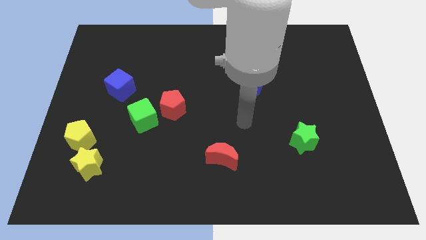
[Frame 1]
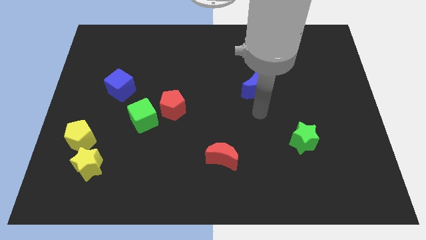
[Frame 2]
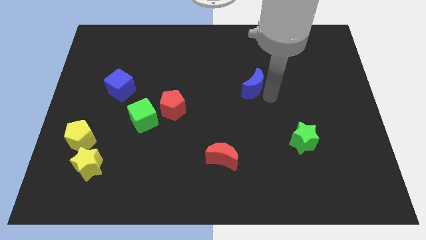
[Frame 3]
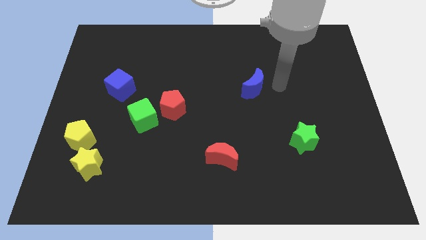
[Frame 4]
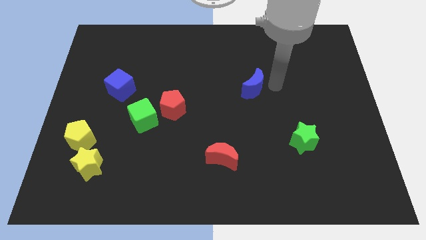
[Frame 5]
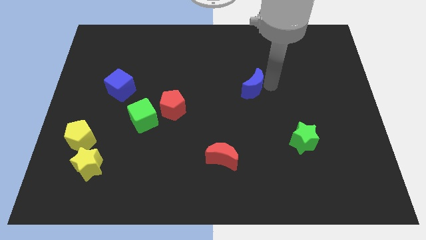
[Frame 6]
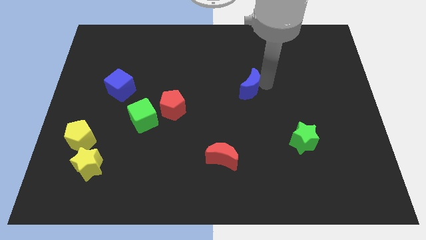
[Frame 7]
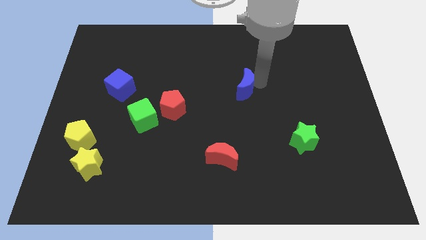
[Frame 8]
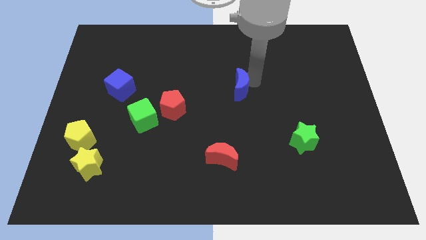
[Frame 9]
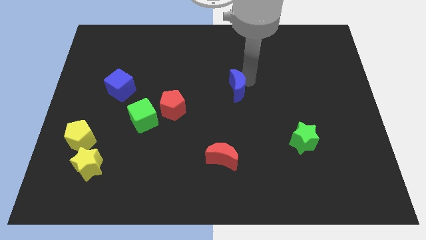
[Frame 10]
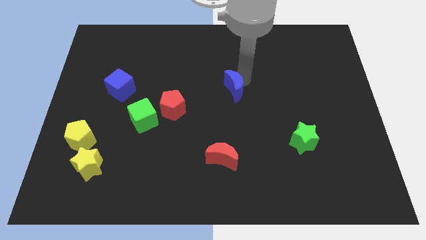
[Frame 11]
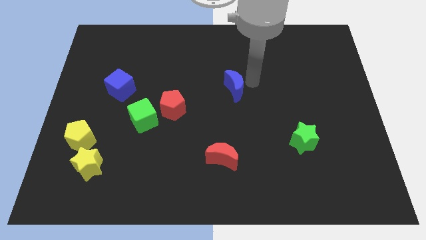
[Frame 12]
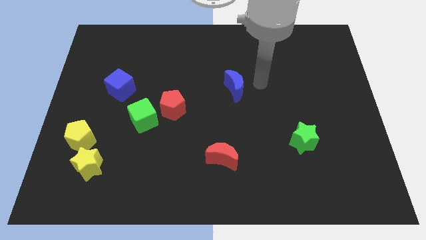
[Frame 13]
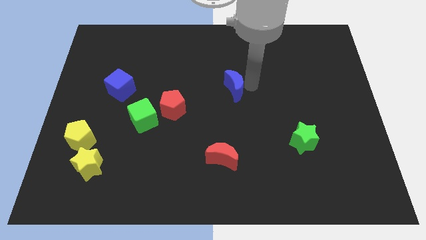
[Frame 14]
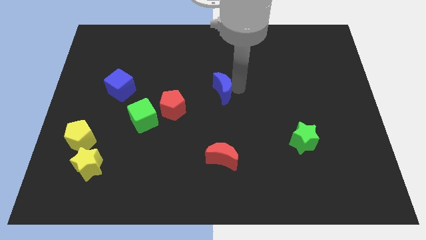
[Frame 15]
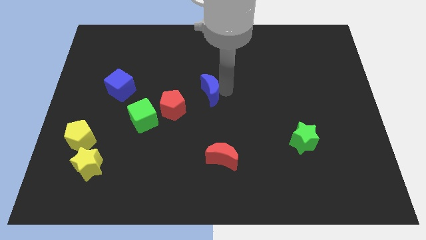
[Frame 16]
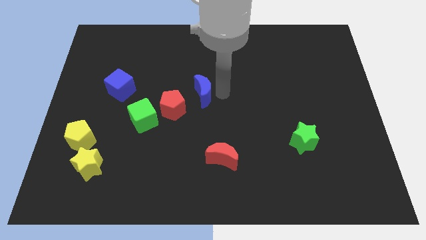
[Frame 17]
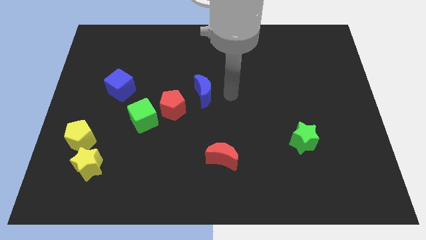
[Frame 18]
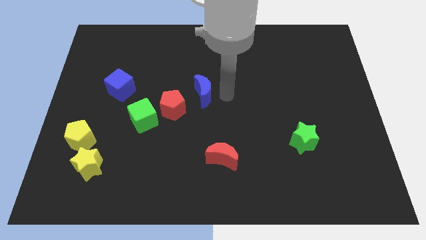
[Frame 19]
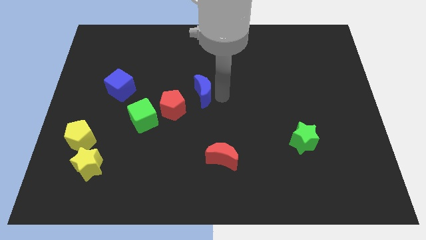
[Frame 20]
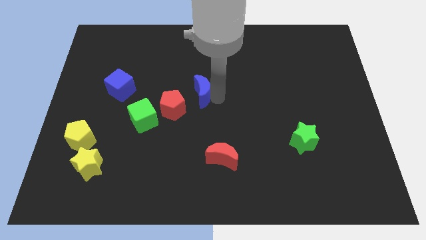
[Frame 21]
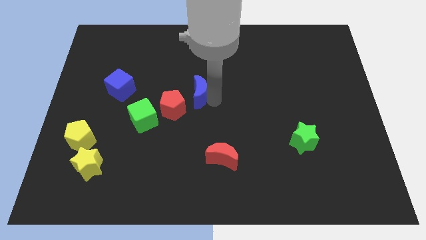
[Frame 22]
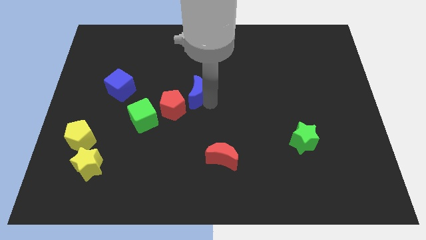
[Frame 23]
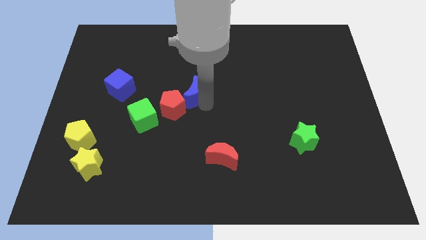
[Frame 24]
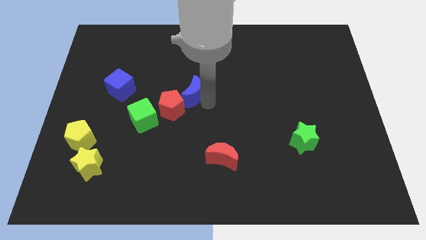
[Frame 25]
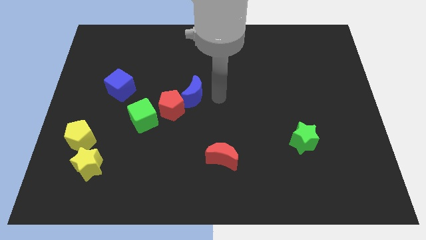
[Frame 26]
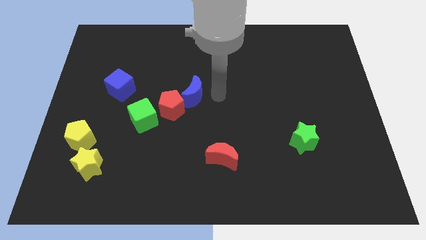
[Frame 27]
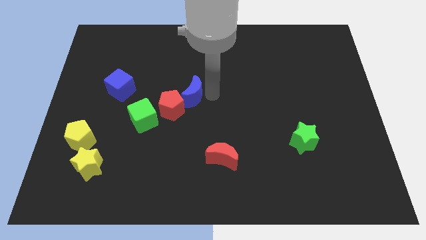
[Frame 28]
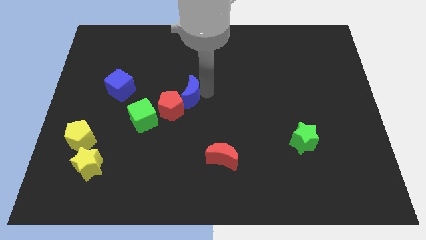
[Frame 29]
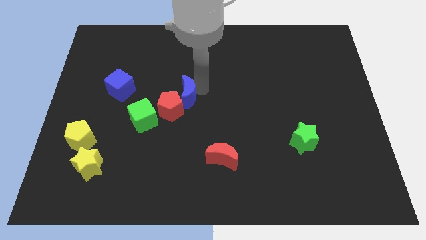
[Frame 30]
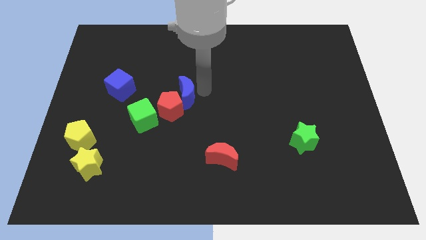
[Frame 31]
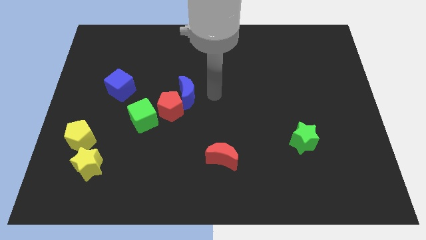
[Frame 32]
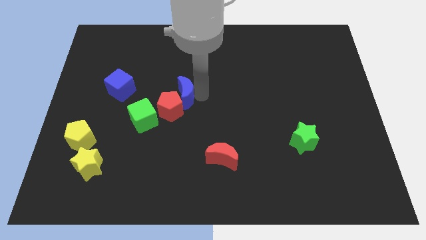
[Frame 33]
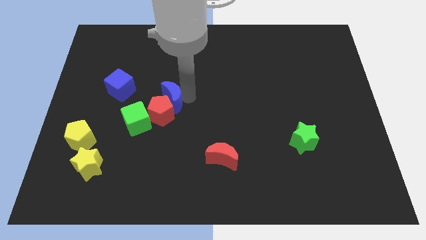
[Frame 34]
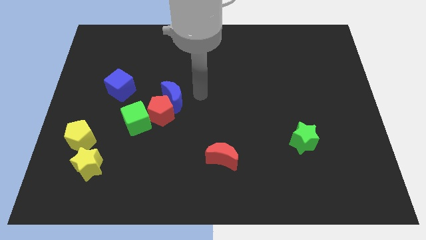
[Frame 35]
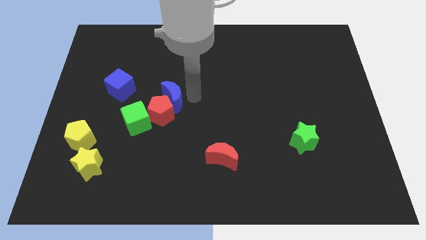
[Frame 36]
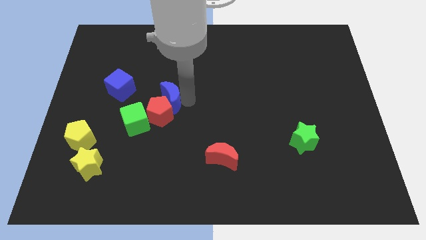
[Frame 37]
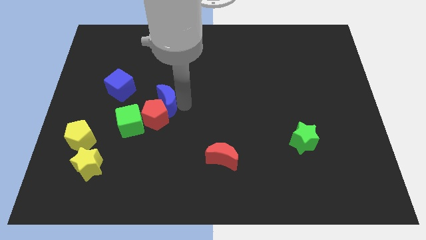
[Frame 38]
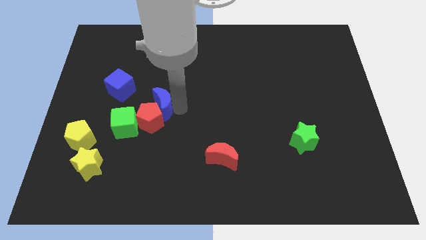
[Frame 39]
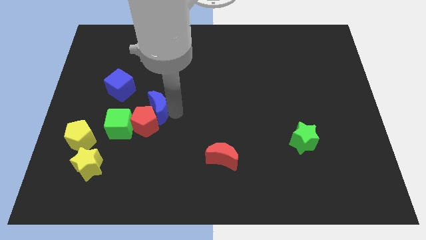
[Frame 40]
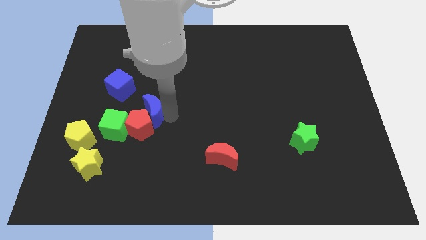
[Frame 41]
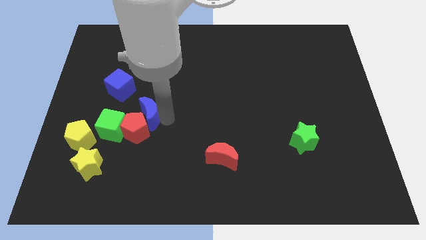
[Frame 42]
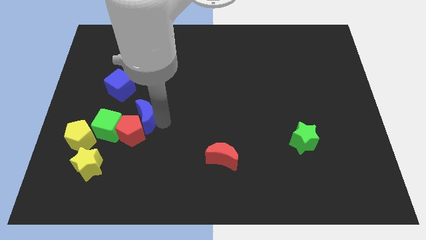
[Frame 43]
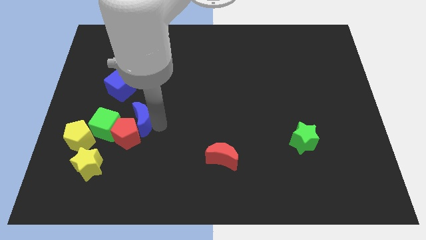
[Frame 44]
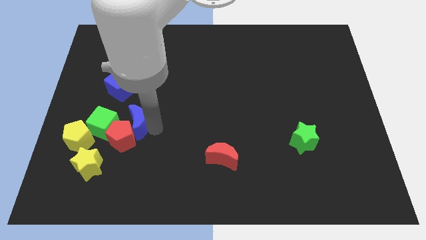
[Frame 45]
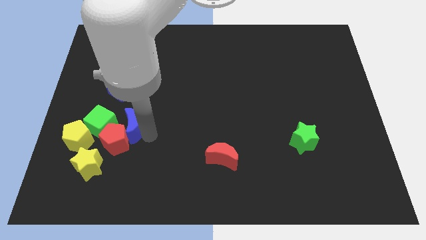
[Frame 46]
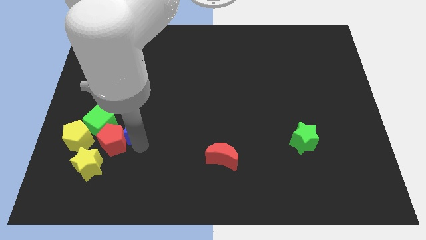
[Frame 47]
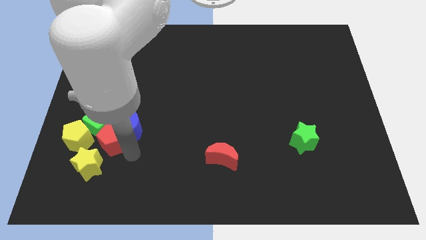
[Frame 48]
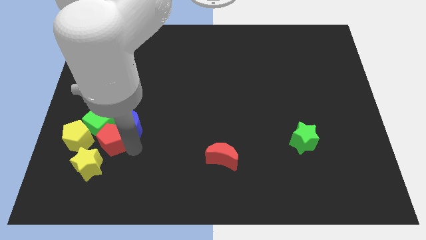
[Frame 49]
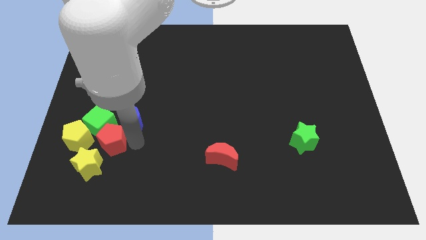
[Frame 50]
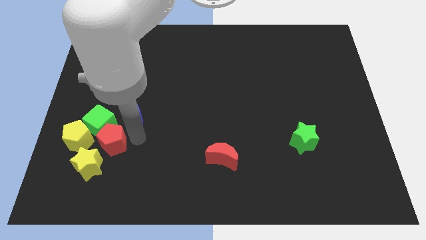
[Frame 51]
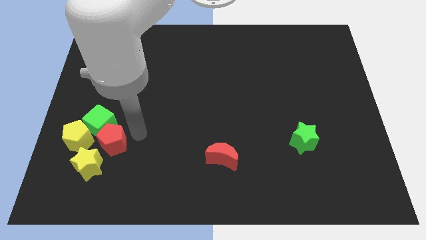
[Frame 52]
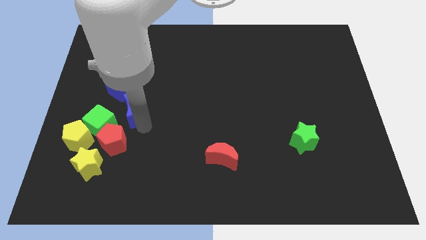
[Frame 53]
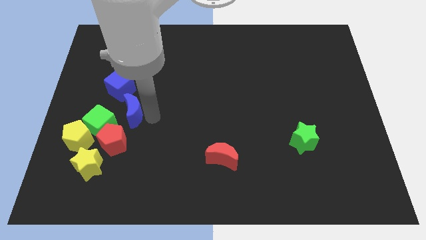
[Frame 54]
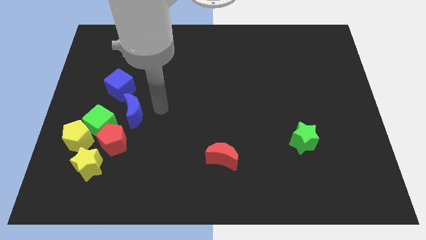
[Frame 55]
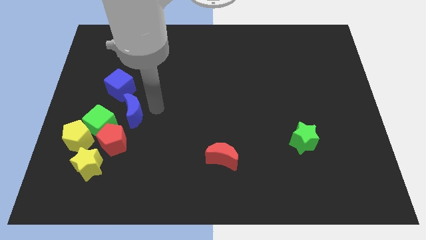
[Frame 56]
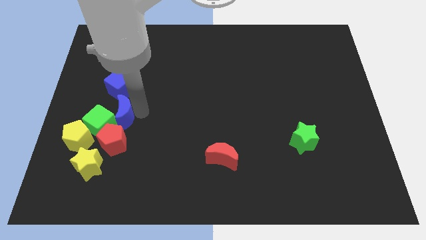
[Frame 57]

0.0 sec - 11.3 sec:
push the blue moon diagonally up and to the right of the yellow pentagon

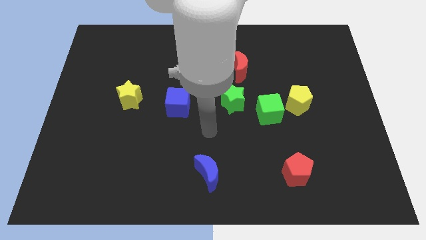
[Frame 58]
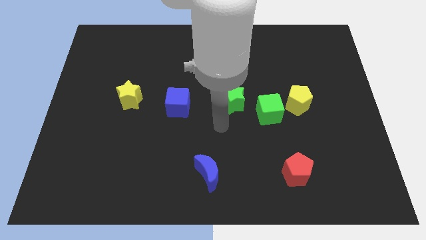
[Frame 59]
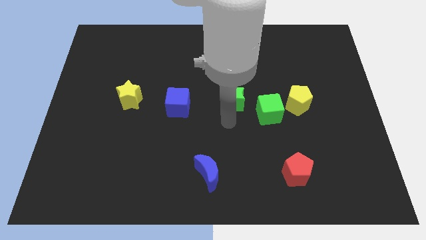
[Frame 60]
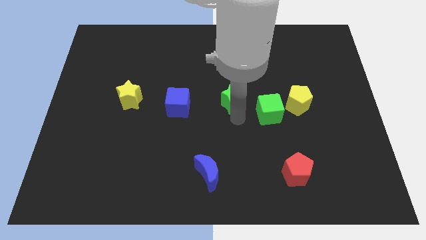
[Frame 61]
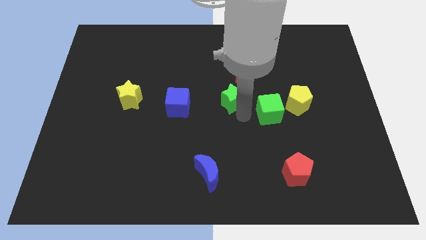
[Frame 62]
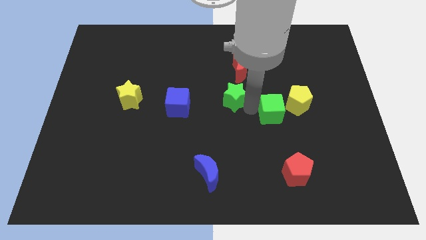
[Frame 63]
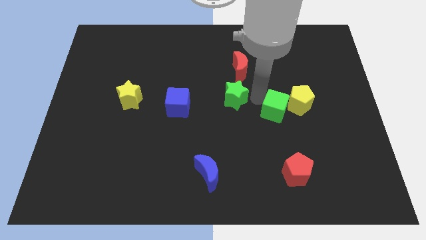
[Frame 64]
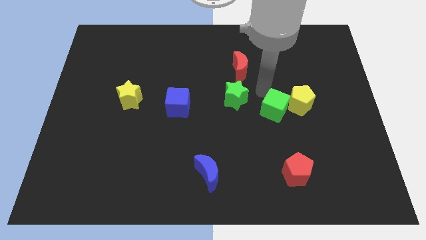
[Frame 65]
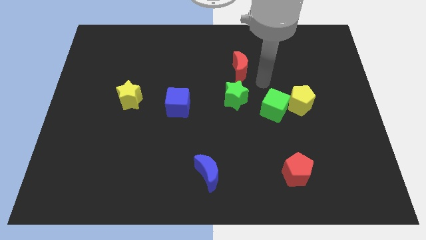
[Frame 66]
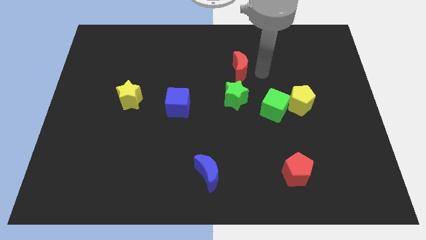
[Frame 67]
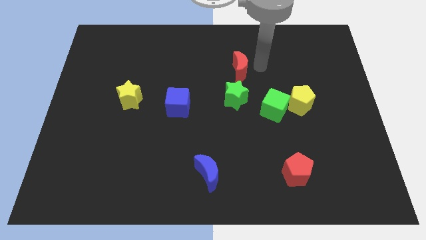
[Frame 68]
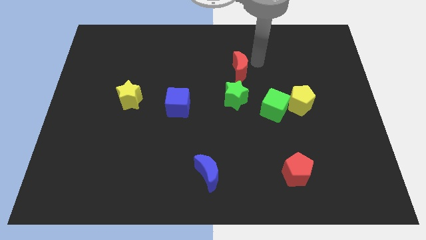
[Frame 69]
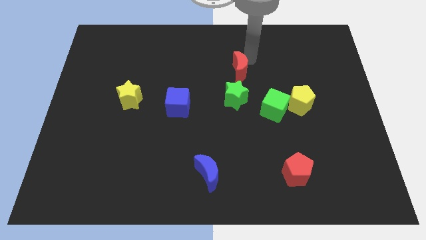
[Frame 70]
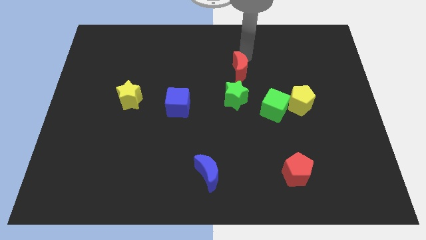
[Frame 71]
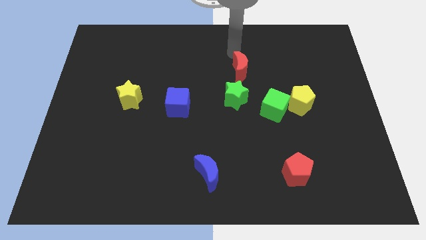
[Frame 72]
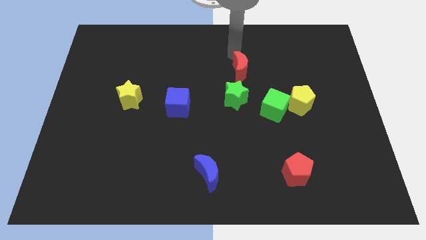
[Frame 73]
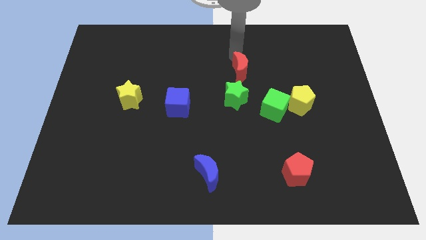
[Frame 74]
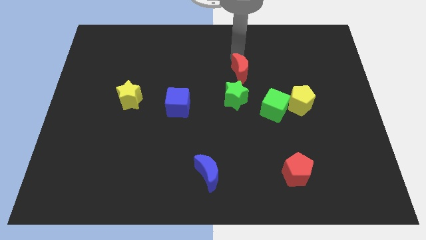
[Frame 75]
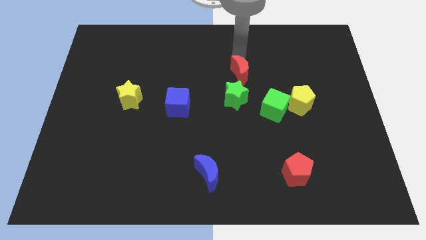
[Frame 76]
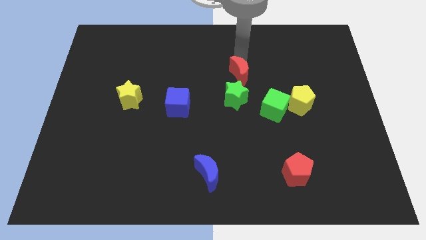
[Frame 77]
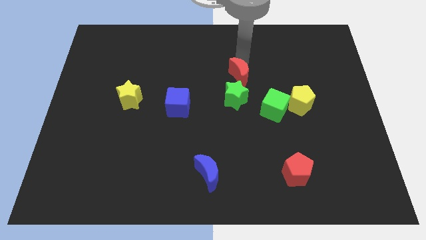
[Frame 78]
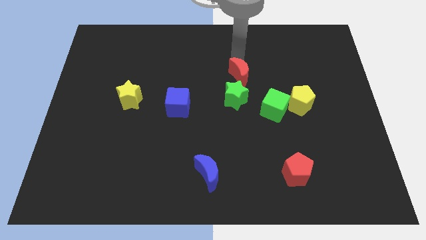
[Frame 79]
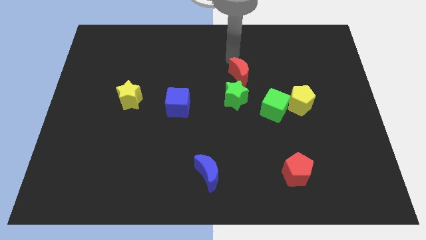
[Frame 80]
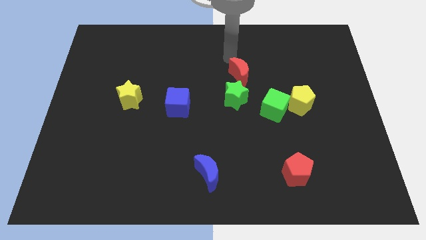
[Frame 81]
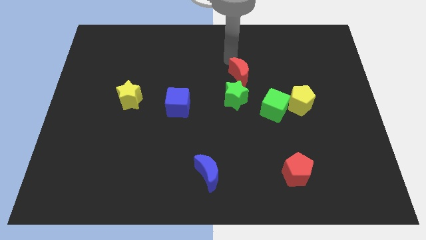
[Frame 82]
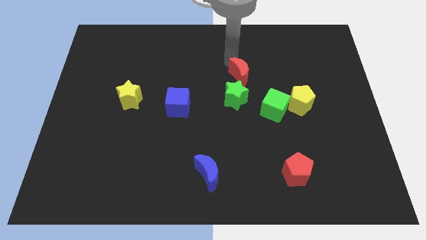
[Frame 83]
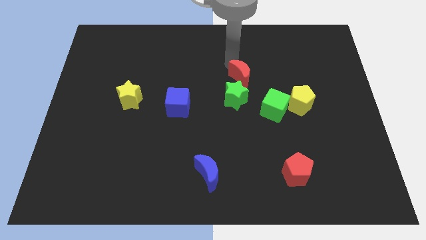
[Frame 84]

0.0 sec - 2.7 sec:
move the red moon to the top left side of the green cube
